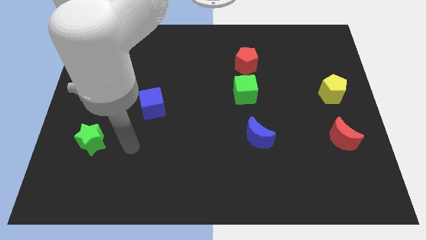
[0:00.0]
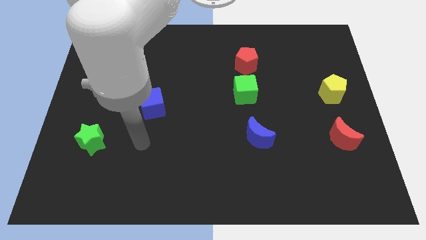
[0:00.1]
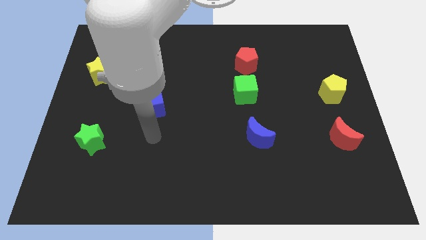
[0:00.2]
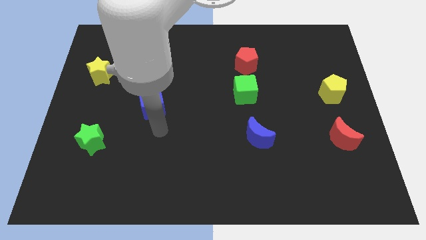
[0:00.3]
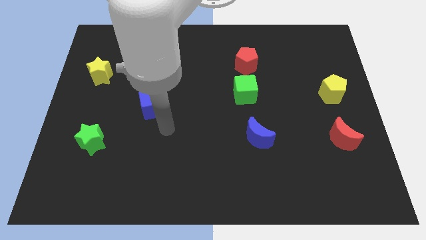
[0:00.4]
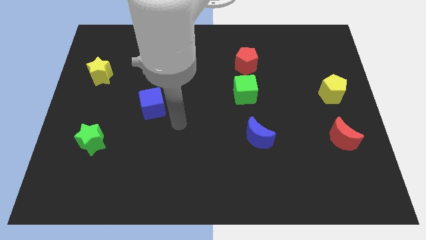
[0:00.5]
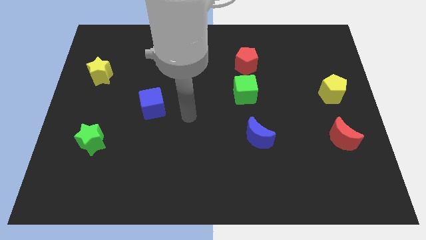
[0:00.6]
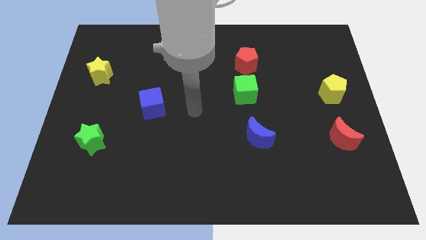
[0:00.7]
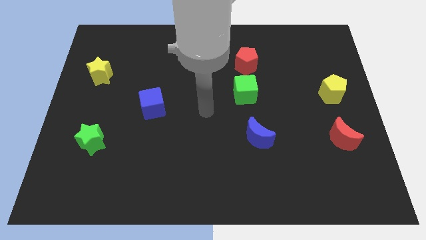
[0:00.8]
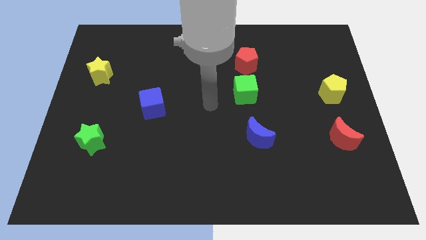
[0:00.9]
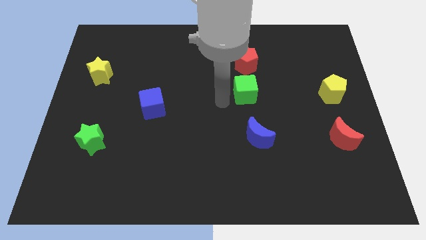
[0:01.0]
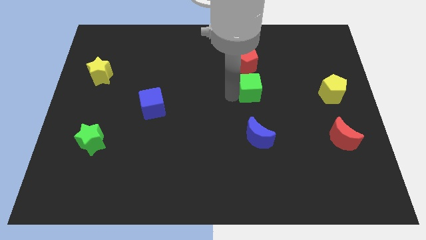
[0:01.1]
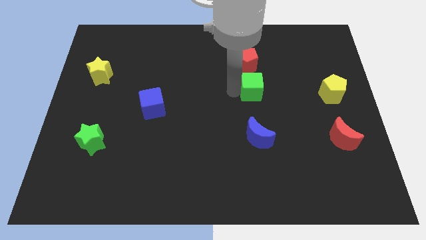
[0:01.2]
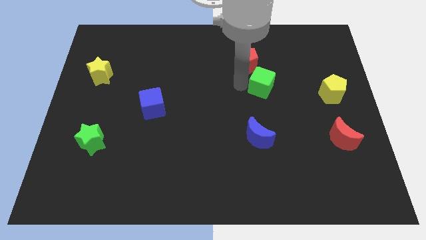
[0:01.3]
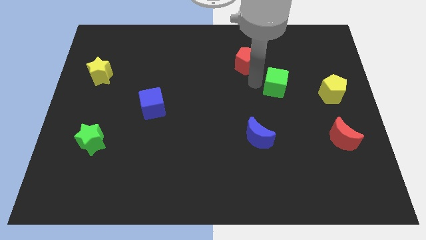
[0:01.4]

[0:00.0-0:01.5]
separate the red pentagon from the green cube

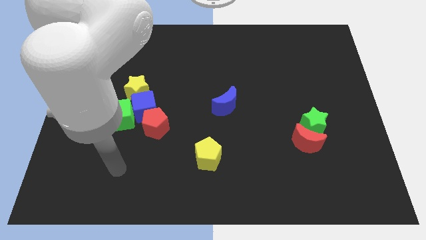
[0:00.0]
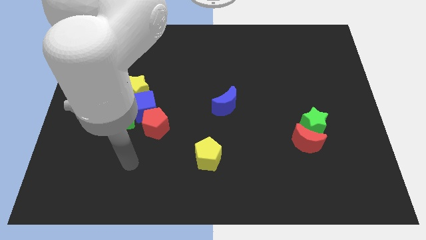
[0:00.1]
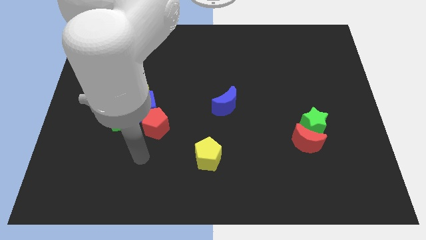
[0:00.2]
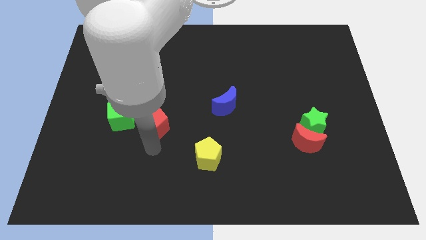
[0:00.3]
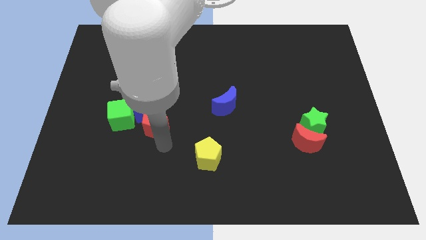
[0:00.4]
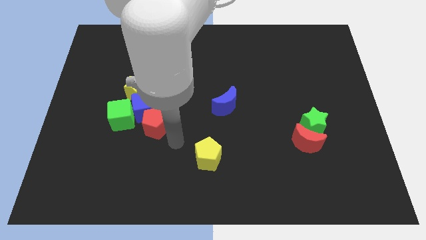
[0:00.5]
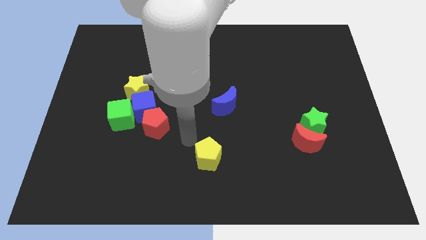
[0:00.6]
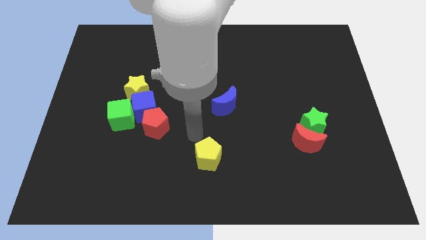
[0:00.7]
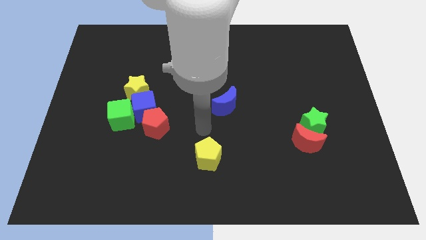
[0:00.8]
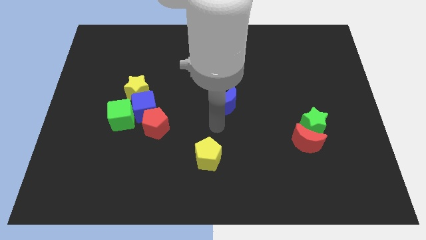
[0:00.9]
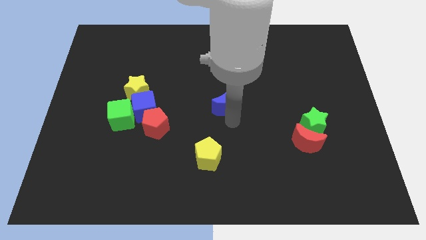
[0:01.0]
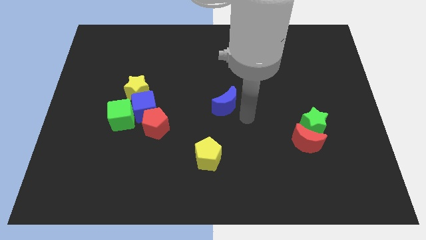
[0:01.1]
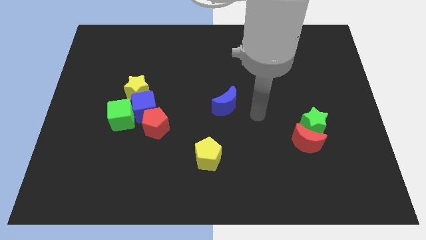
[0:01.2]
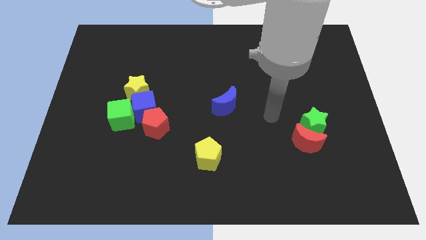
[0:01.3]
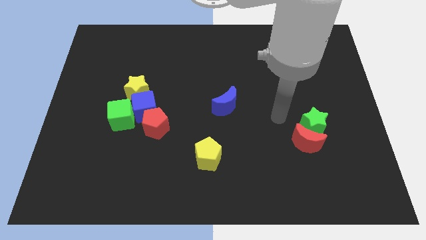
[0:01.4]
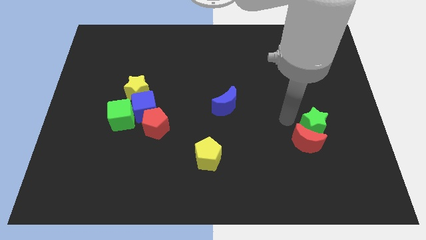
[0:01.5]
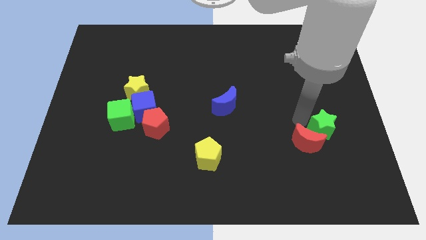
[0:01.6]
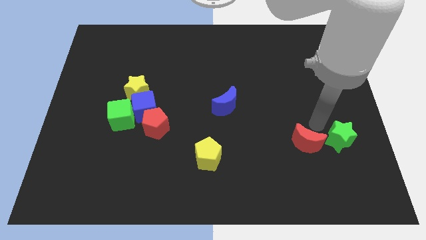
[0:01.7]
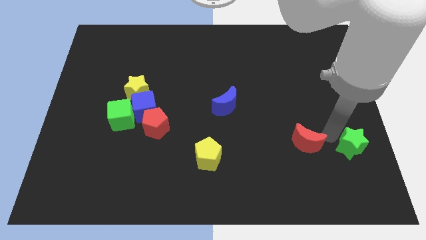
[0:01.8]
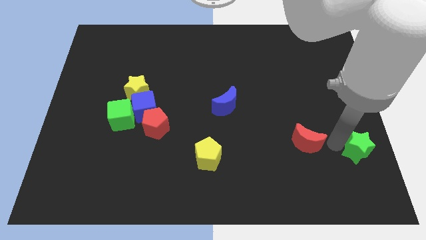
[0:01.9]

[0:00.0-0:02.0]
pull the red moon apart from the green star

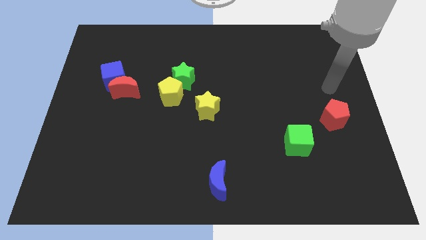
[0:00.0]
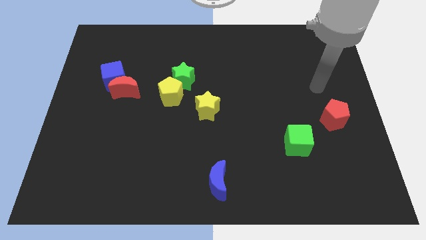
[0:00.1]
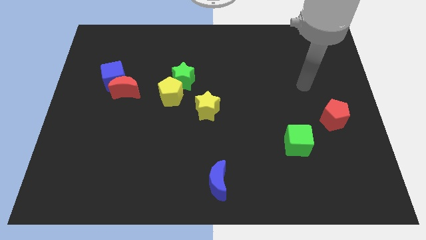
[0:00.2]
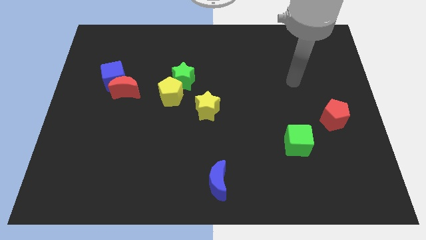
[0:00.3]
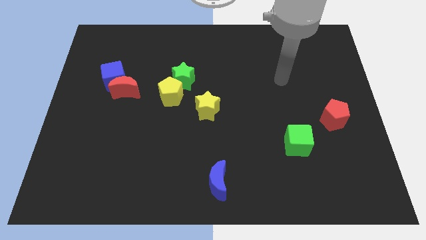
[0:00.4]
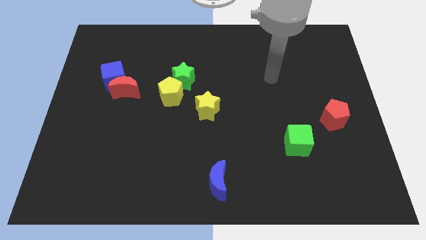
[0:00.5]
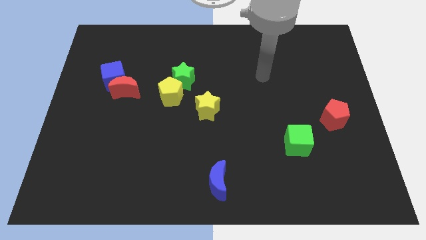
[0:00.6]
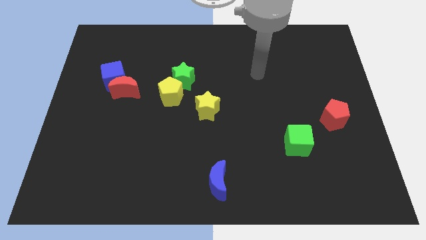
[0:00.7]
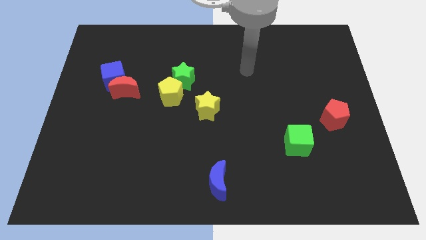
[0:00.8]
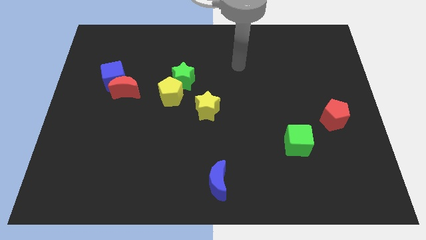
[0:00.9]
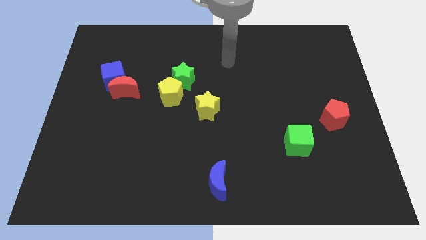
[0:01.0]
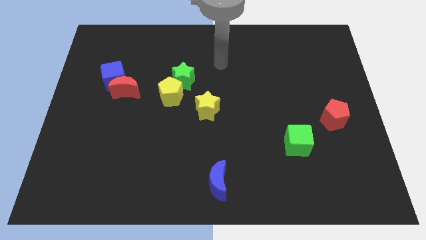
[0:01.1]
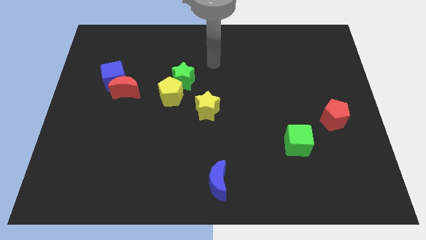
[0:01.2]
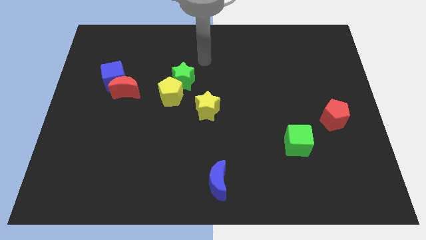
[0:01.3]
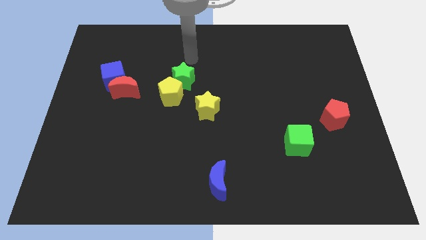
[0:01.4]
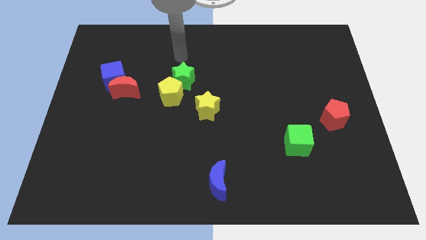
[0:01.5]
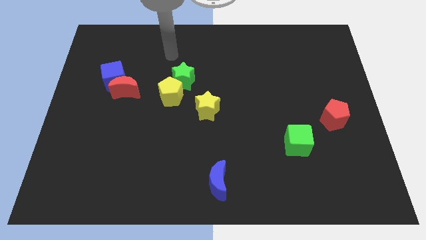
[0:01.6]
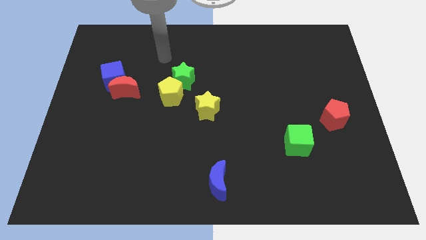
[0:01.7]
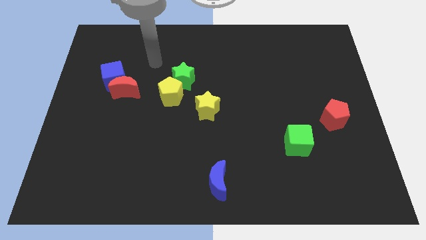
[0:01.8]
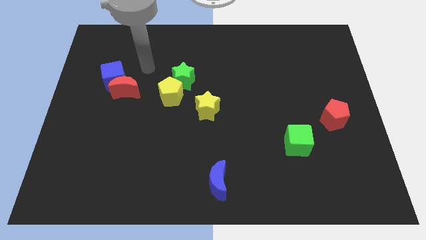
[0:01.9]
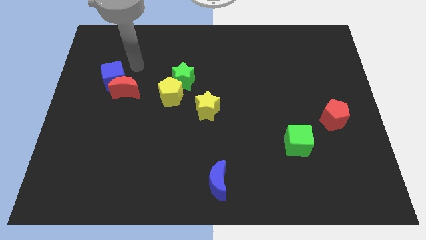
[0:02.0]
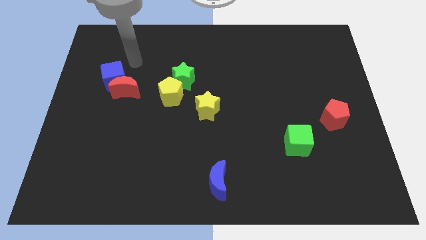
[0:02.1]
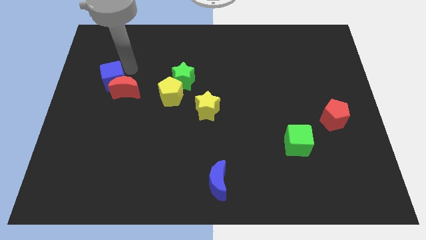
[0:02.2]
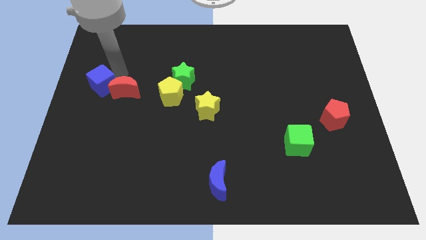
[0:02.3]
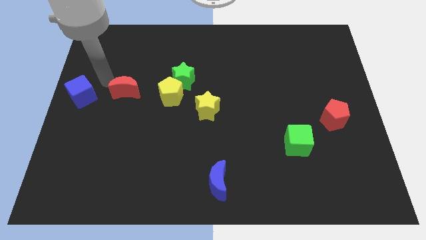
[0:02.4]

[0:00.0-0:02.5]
move the red moon away from the blue cube

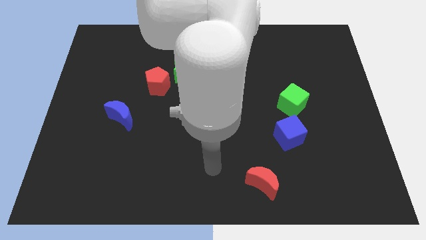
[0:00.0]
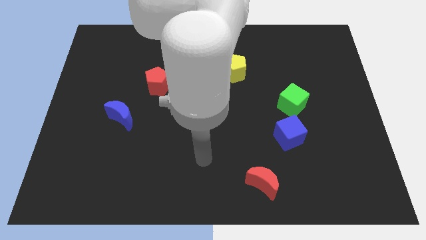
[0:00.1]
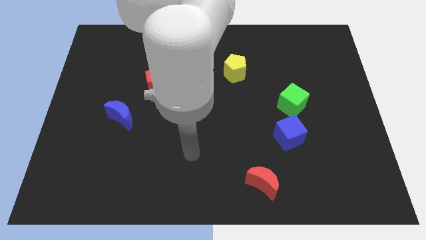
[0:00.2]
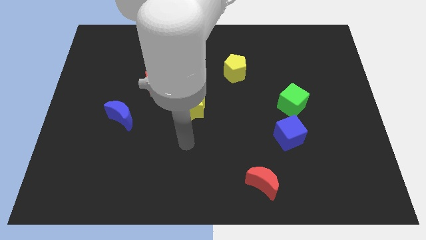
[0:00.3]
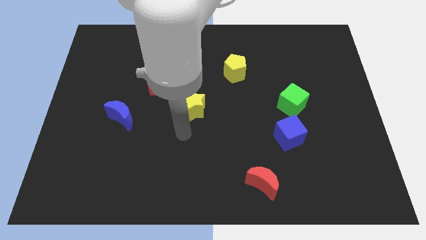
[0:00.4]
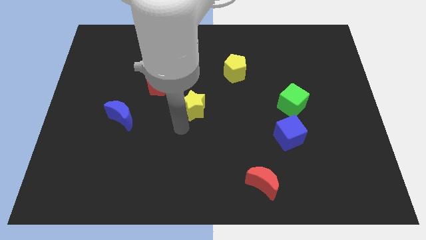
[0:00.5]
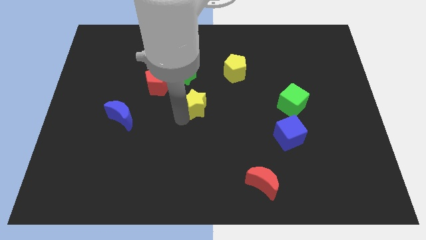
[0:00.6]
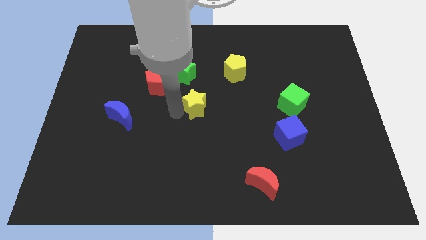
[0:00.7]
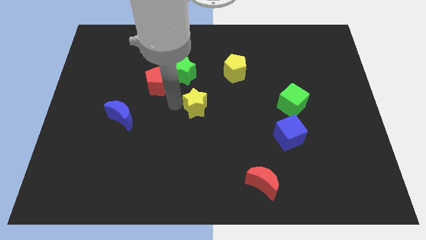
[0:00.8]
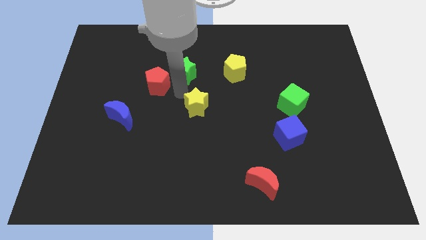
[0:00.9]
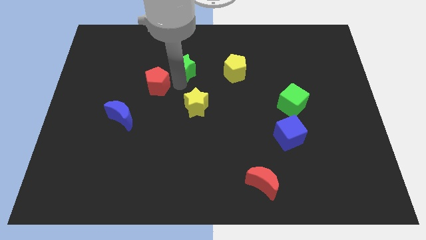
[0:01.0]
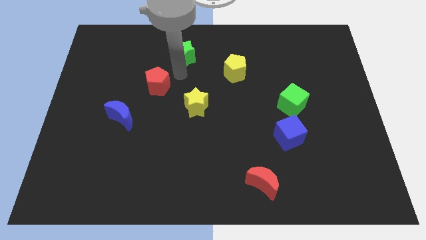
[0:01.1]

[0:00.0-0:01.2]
separate the red pentagon from the green star

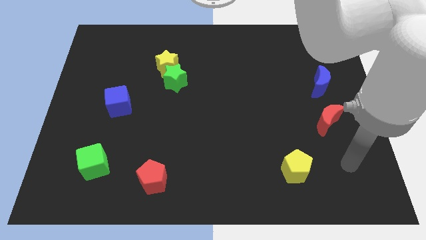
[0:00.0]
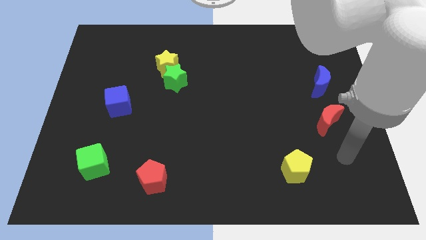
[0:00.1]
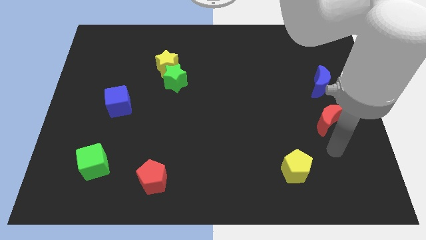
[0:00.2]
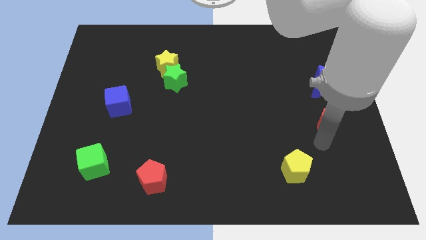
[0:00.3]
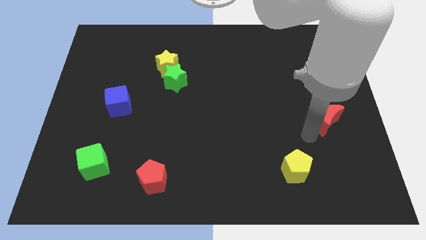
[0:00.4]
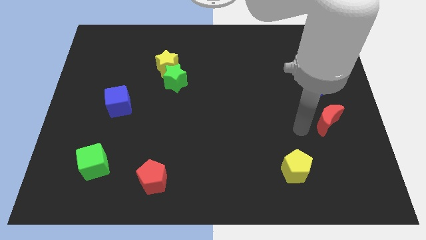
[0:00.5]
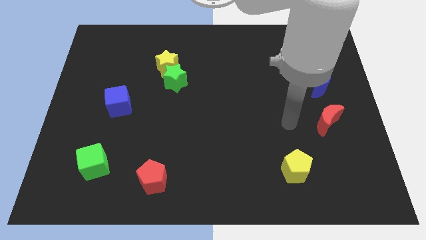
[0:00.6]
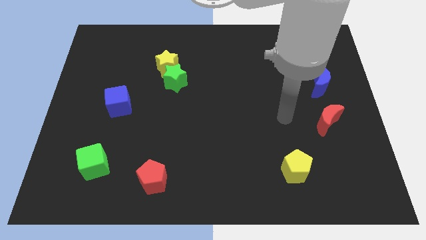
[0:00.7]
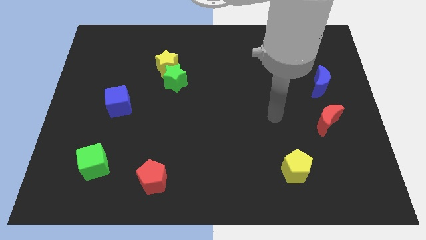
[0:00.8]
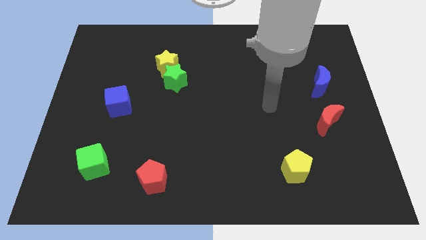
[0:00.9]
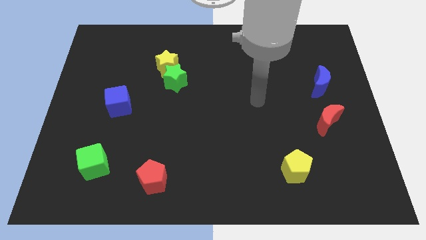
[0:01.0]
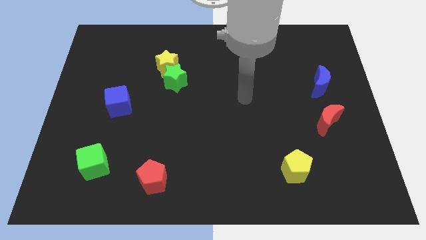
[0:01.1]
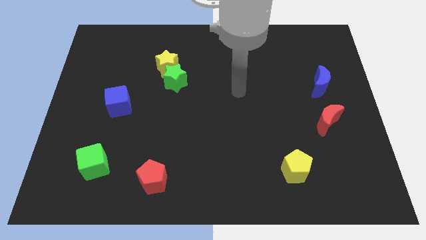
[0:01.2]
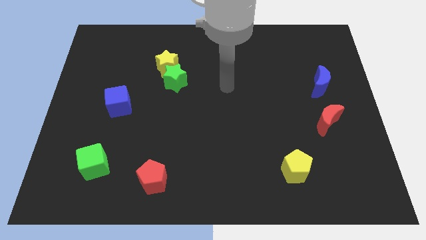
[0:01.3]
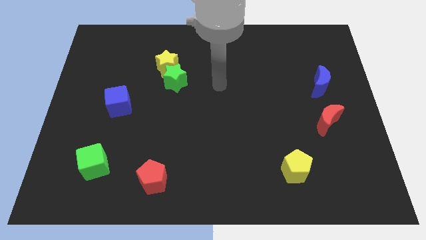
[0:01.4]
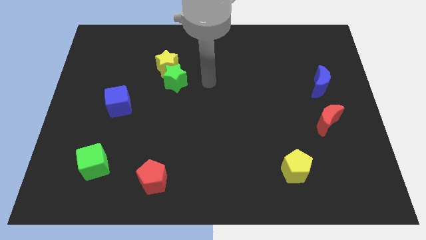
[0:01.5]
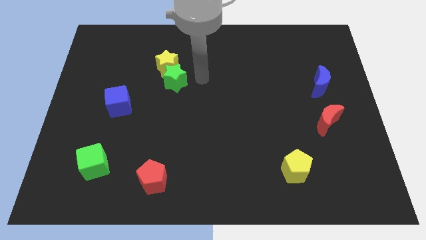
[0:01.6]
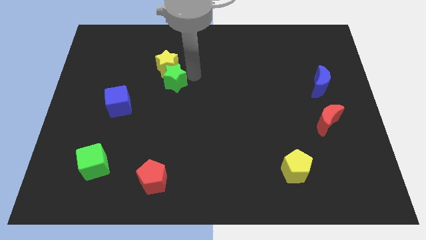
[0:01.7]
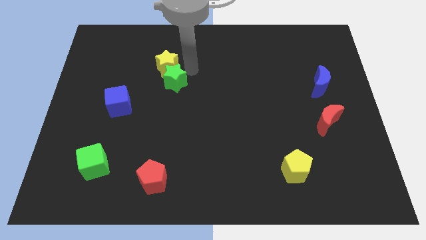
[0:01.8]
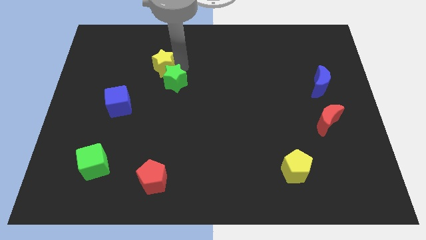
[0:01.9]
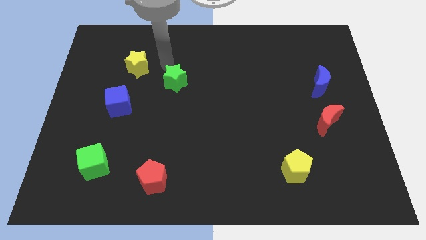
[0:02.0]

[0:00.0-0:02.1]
separate the green star from the yellow star
